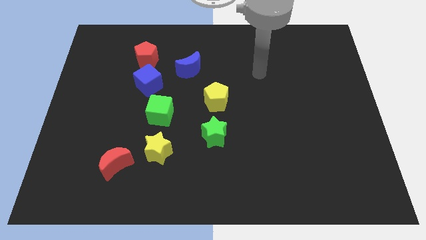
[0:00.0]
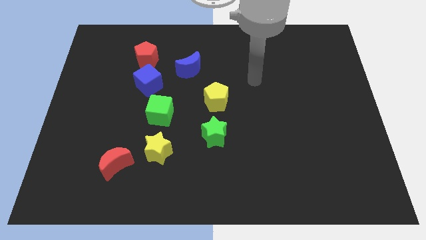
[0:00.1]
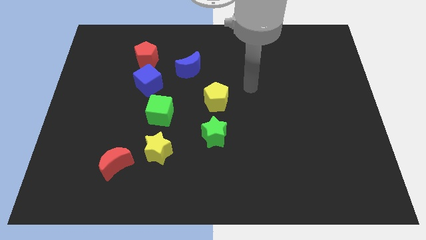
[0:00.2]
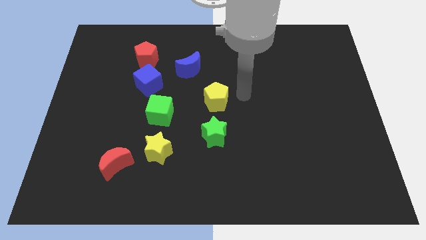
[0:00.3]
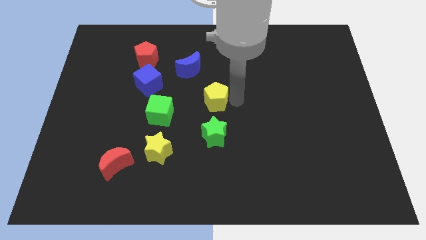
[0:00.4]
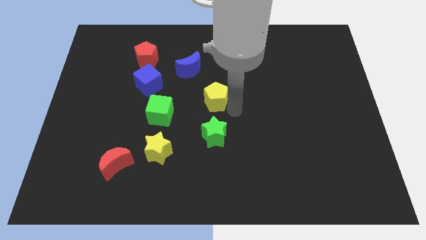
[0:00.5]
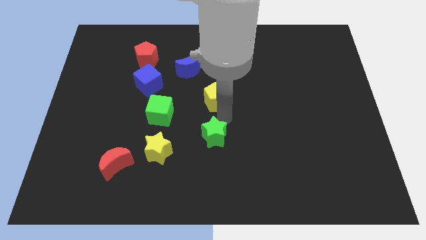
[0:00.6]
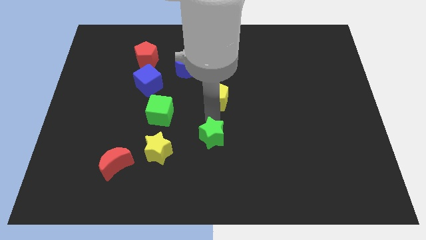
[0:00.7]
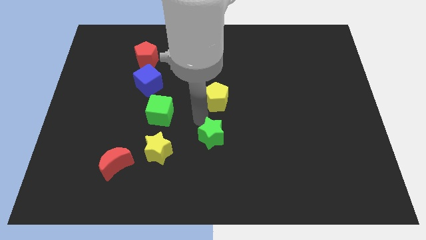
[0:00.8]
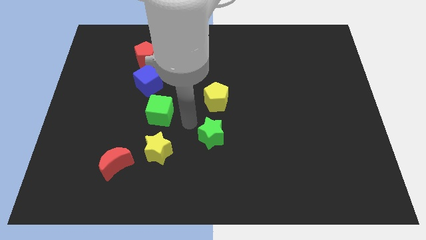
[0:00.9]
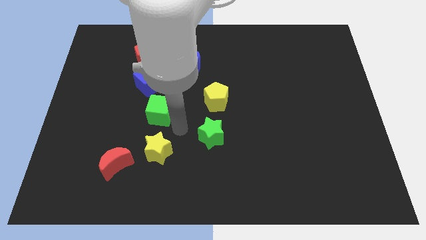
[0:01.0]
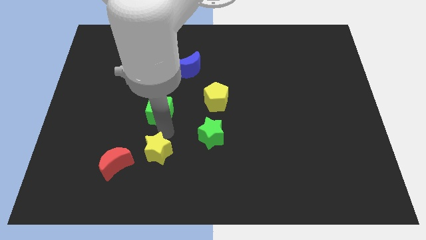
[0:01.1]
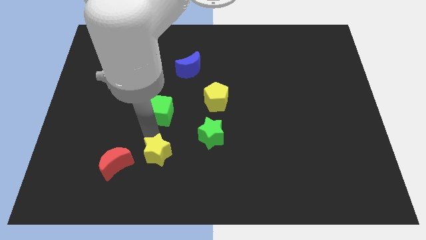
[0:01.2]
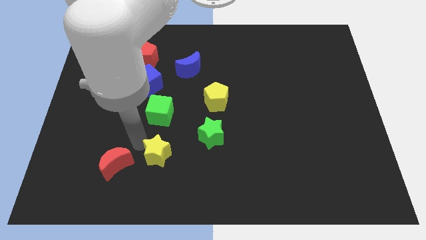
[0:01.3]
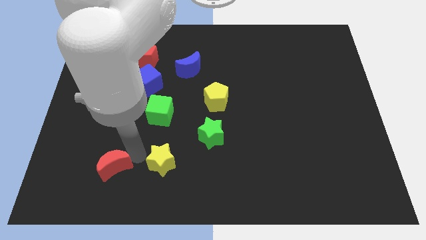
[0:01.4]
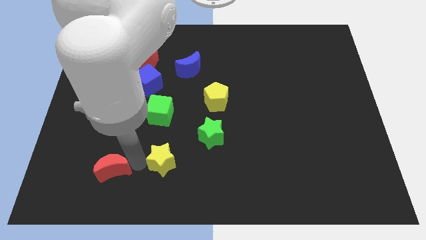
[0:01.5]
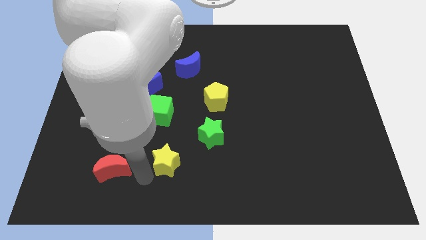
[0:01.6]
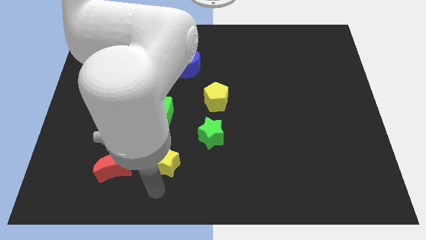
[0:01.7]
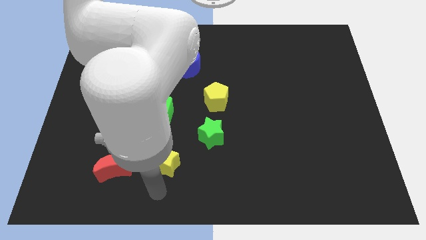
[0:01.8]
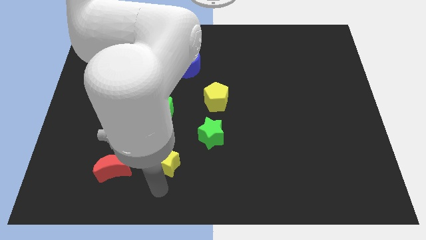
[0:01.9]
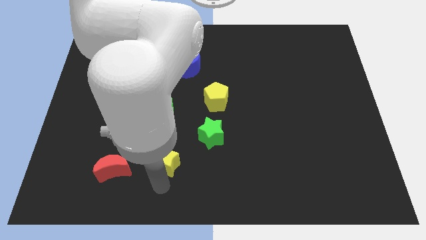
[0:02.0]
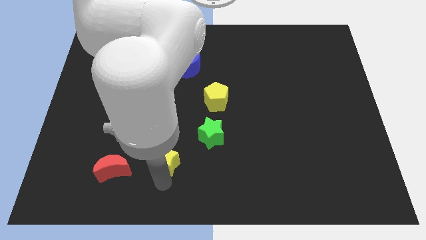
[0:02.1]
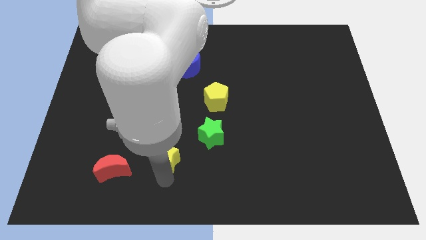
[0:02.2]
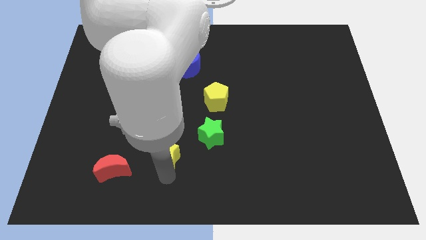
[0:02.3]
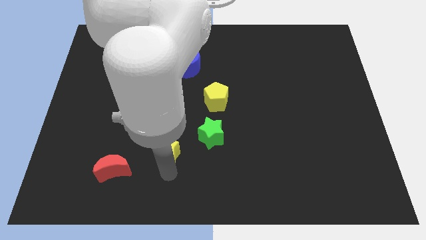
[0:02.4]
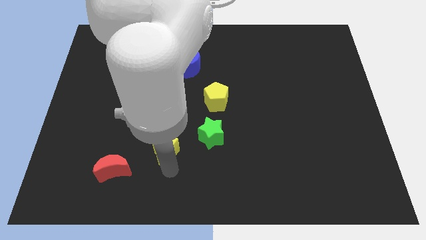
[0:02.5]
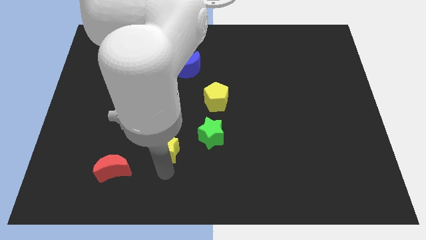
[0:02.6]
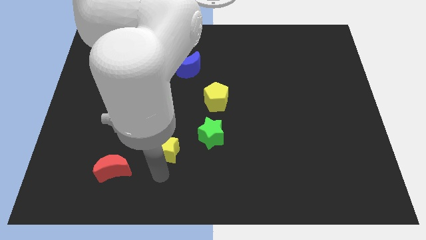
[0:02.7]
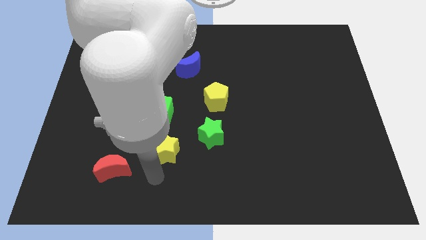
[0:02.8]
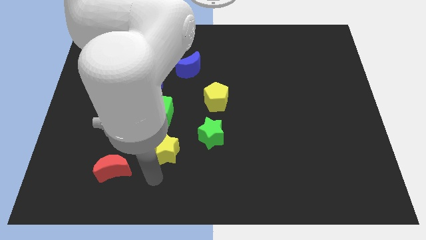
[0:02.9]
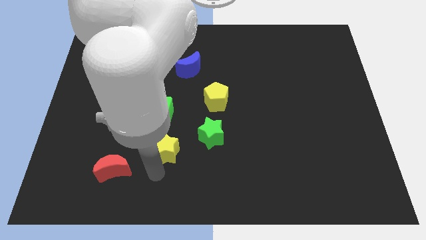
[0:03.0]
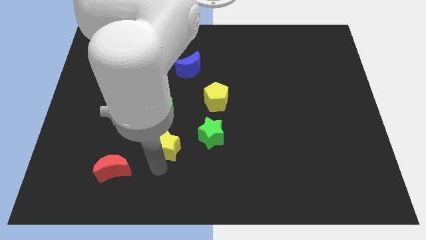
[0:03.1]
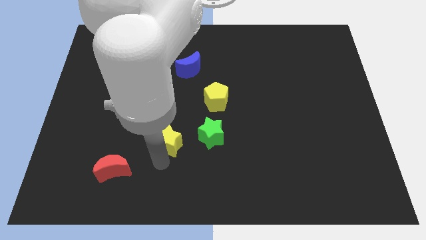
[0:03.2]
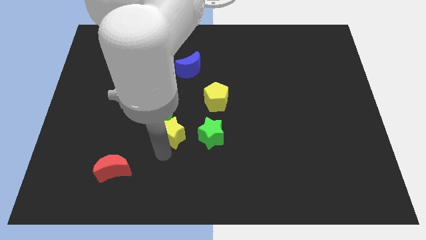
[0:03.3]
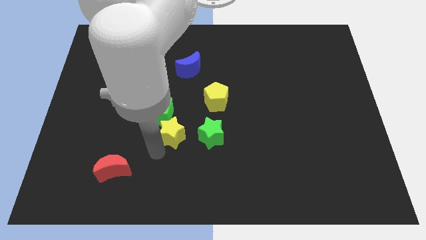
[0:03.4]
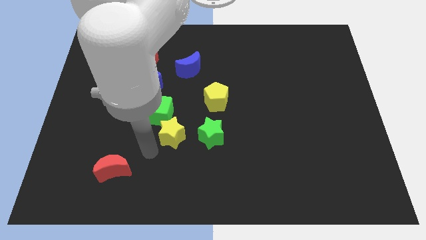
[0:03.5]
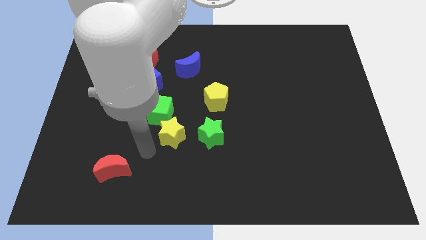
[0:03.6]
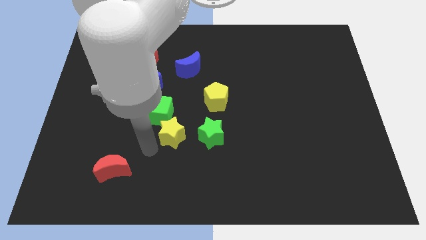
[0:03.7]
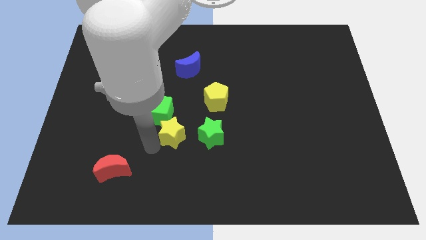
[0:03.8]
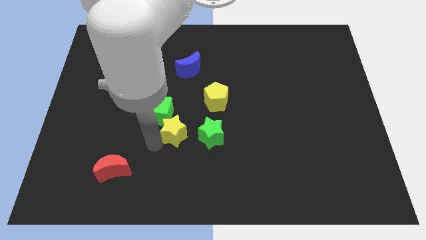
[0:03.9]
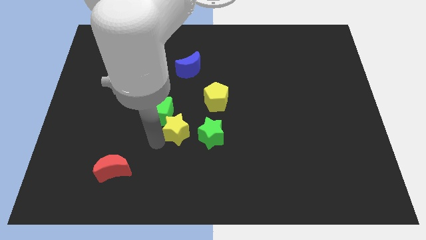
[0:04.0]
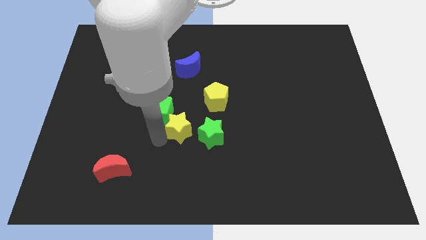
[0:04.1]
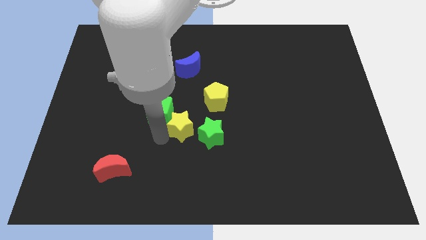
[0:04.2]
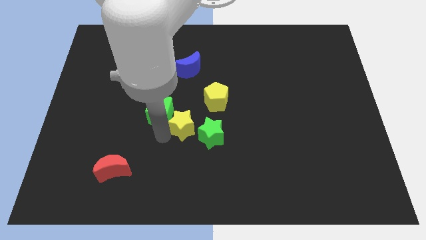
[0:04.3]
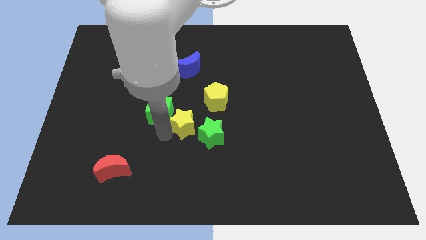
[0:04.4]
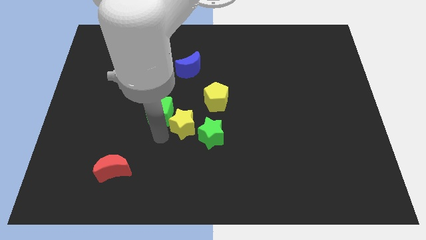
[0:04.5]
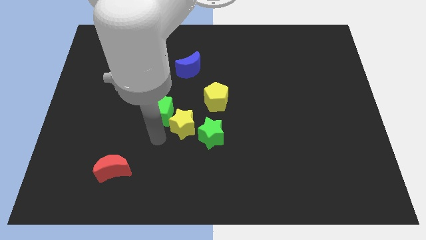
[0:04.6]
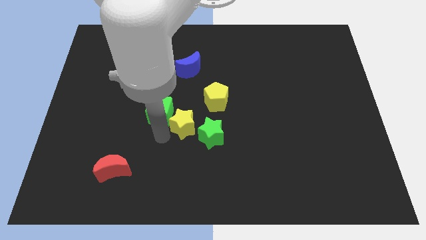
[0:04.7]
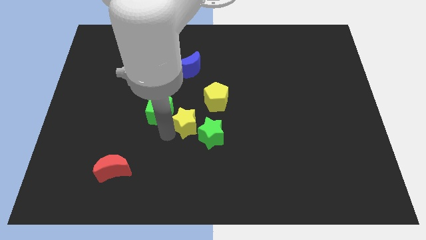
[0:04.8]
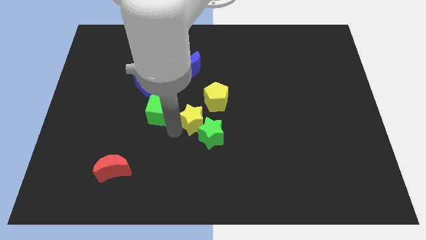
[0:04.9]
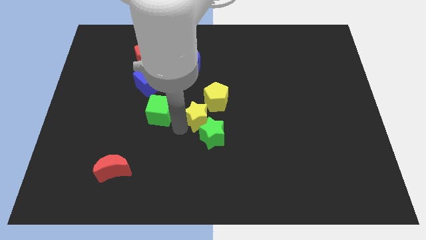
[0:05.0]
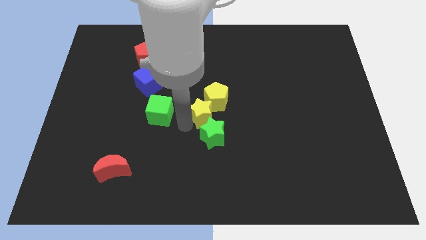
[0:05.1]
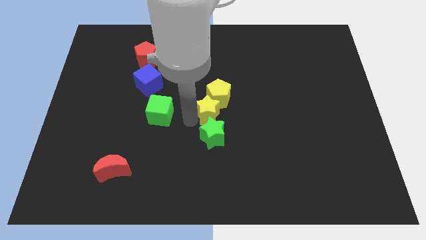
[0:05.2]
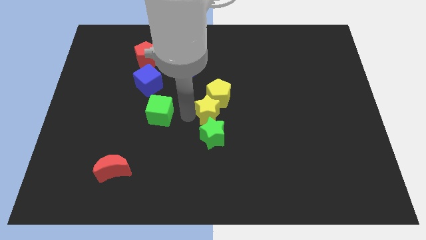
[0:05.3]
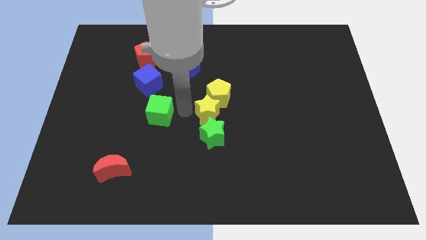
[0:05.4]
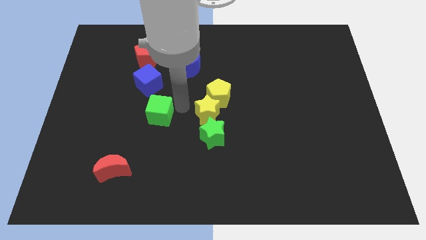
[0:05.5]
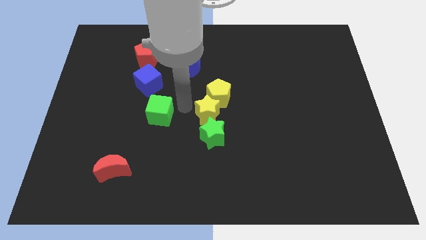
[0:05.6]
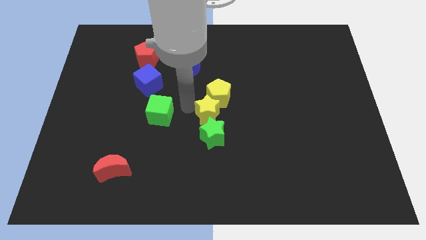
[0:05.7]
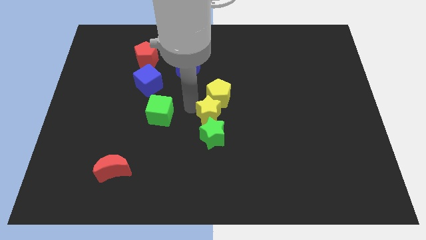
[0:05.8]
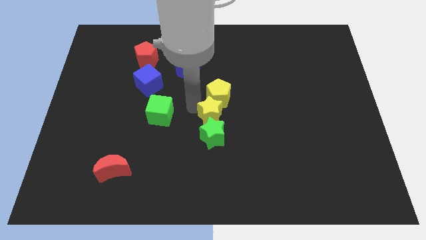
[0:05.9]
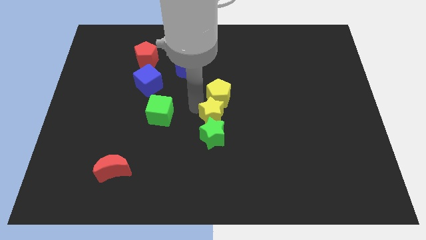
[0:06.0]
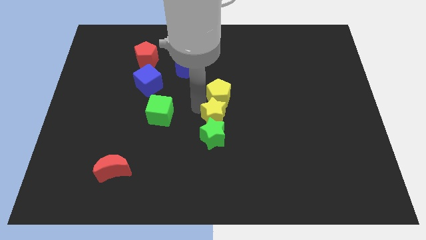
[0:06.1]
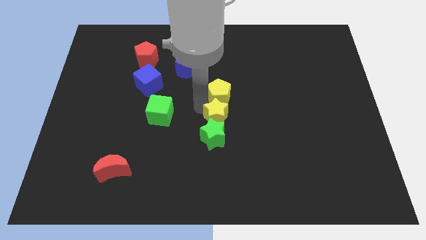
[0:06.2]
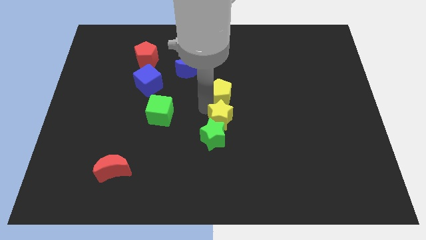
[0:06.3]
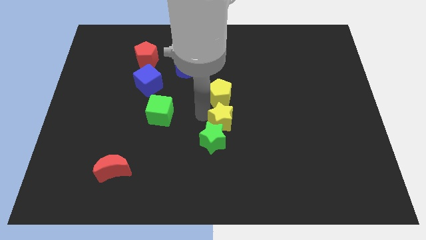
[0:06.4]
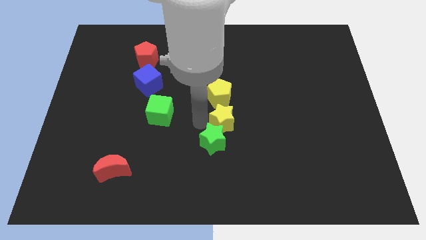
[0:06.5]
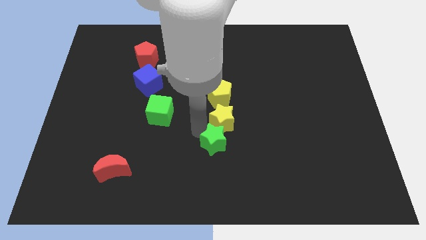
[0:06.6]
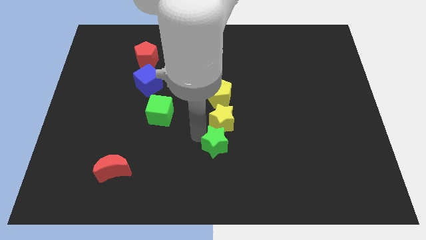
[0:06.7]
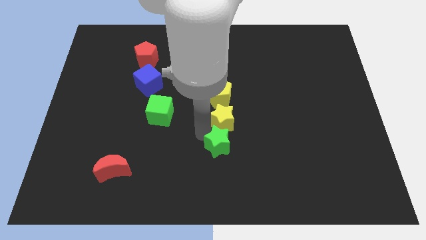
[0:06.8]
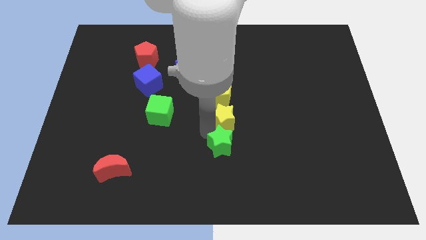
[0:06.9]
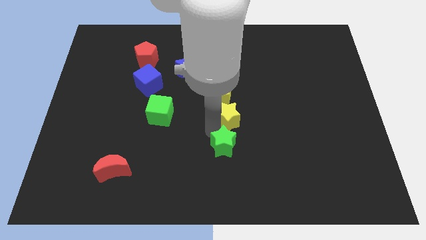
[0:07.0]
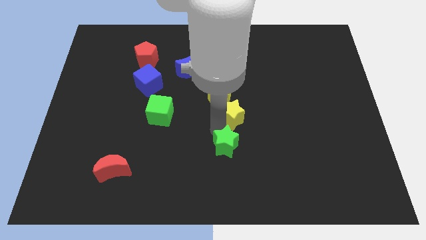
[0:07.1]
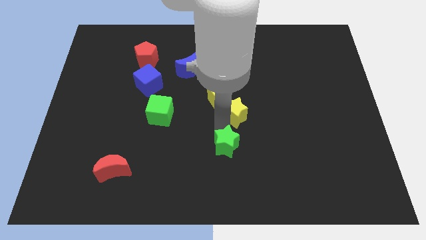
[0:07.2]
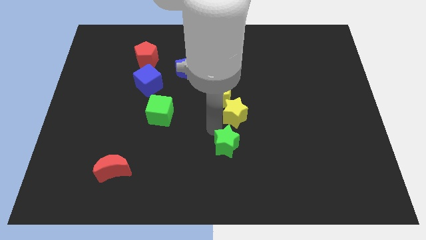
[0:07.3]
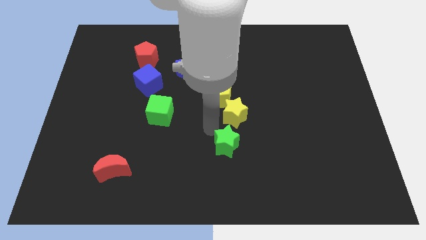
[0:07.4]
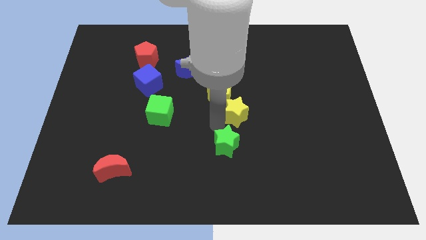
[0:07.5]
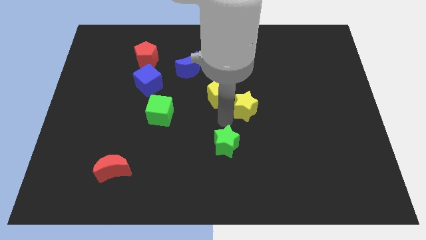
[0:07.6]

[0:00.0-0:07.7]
put the yellow star right of the yellow pentagon
